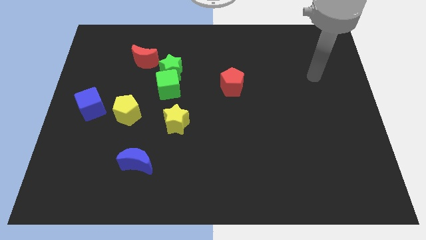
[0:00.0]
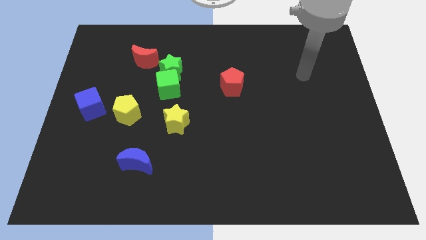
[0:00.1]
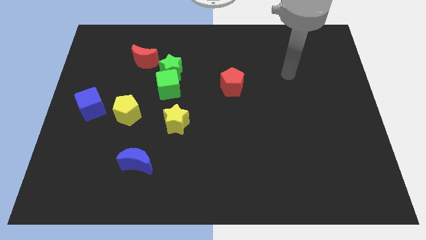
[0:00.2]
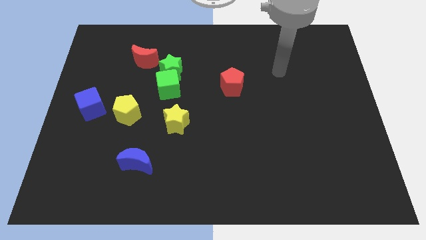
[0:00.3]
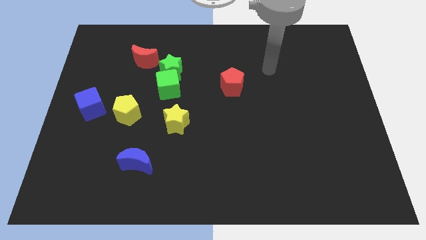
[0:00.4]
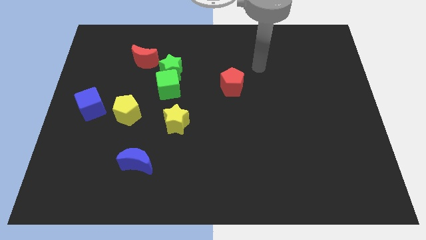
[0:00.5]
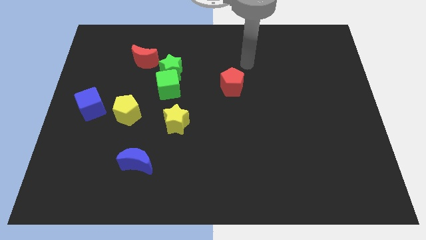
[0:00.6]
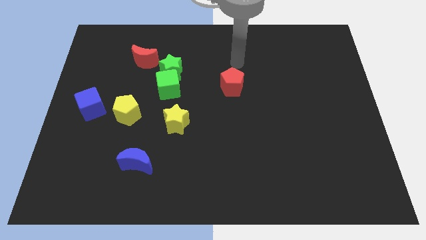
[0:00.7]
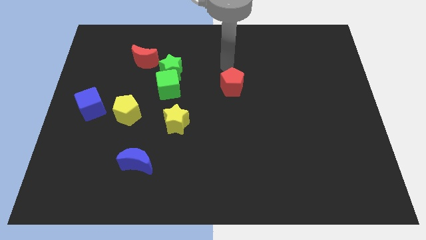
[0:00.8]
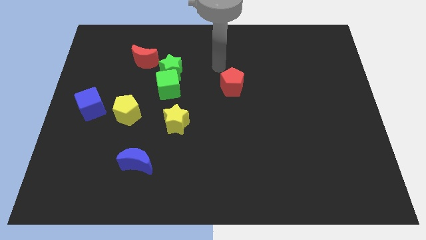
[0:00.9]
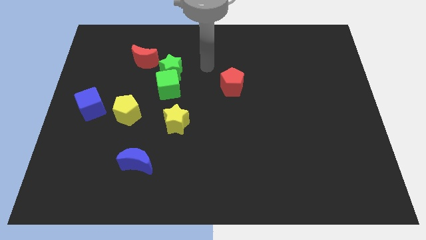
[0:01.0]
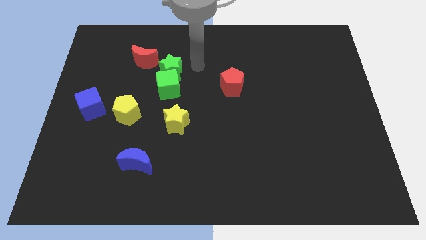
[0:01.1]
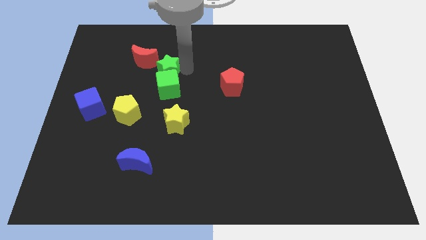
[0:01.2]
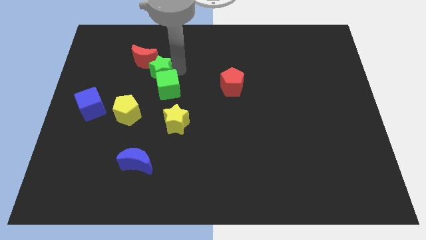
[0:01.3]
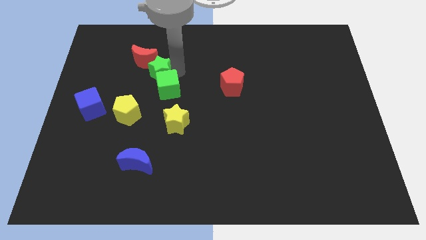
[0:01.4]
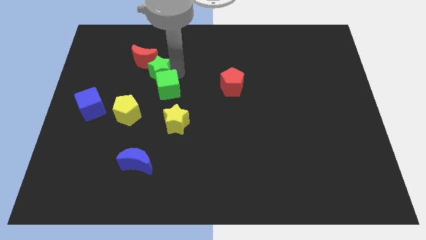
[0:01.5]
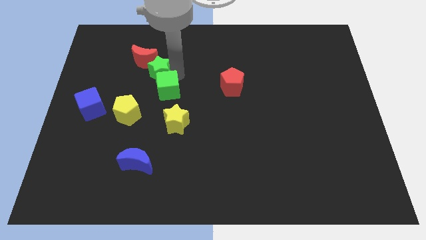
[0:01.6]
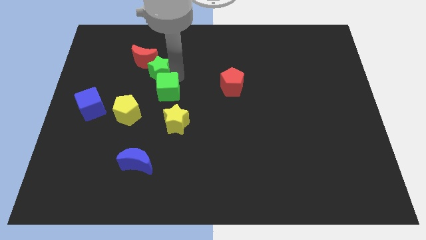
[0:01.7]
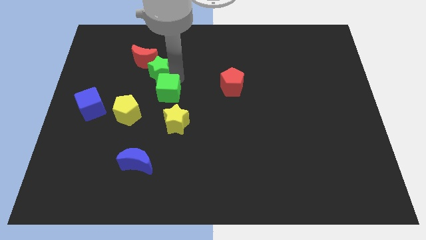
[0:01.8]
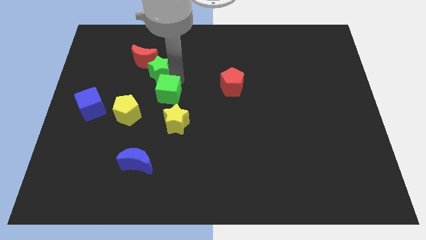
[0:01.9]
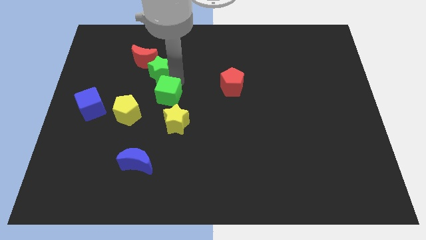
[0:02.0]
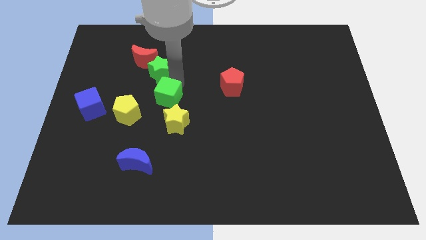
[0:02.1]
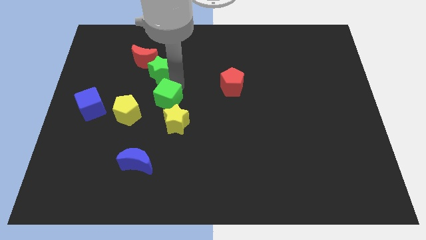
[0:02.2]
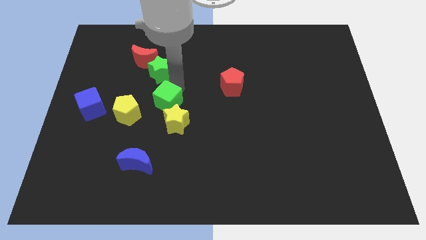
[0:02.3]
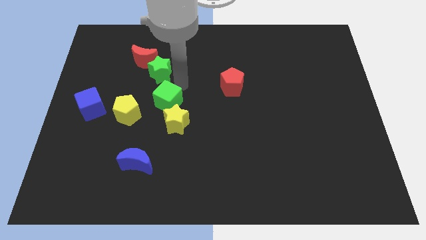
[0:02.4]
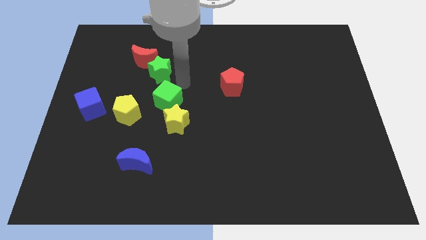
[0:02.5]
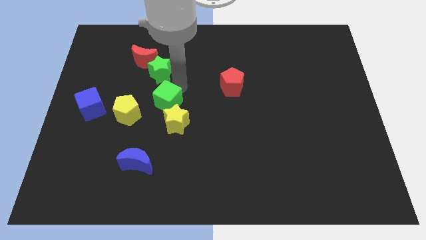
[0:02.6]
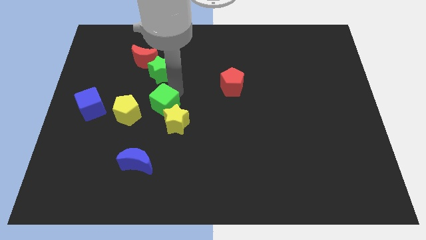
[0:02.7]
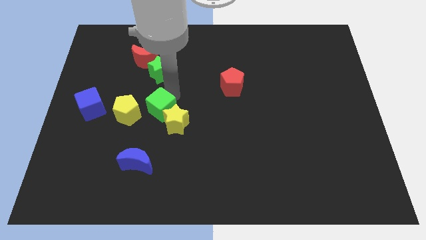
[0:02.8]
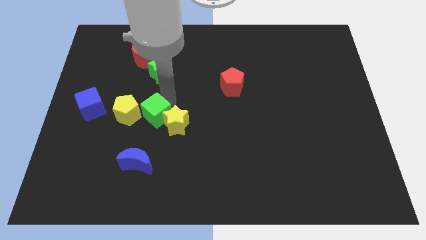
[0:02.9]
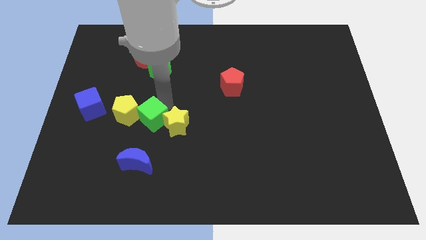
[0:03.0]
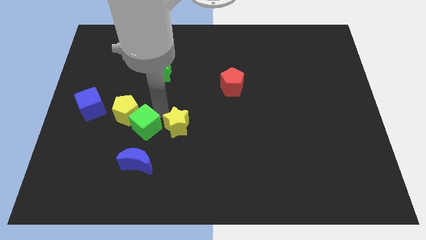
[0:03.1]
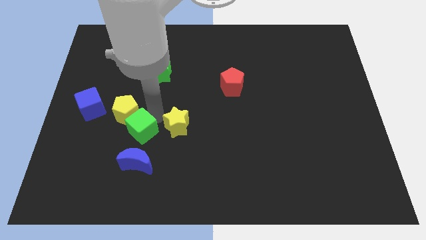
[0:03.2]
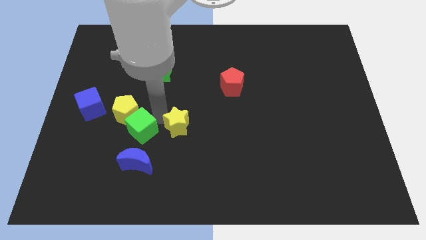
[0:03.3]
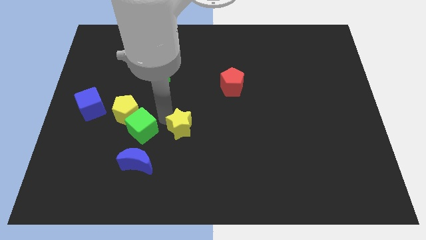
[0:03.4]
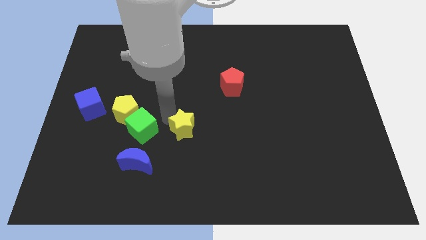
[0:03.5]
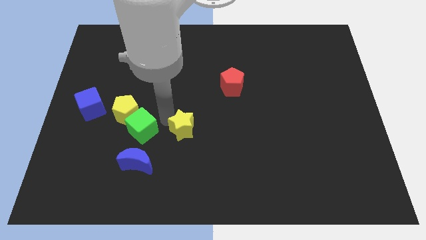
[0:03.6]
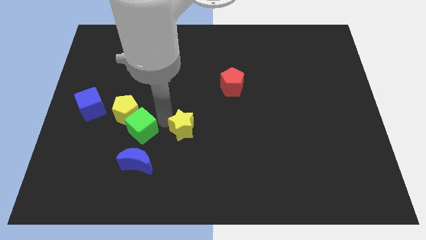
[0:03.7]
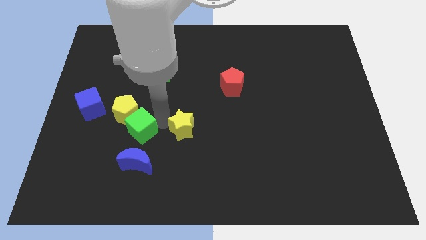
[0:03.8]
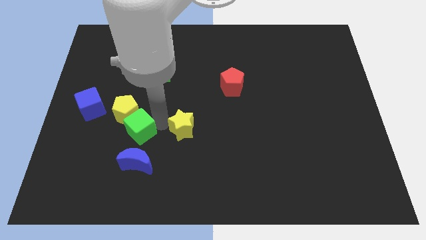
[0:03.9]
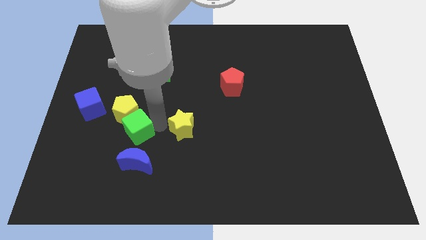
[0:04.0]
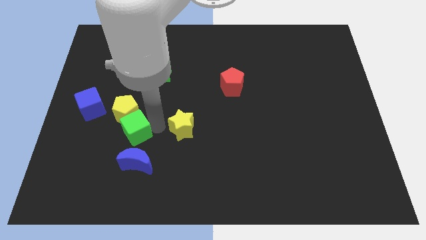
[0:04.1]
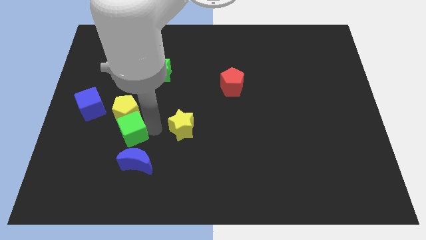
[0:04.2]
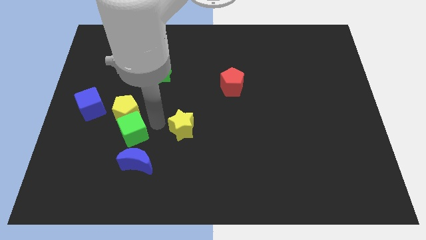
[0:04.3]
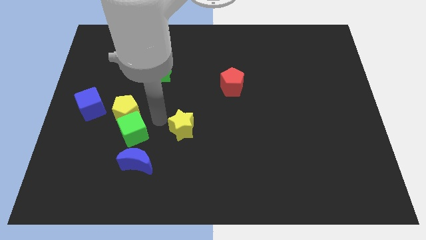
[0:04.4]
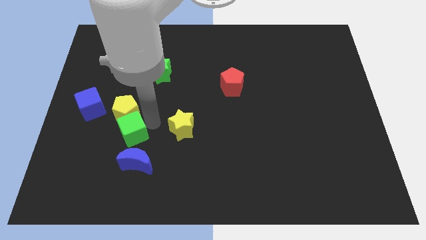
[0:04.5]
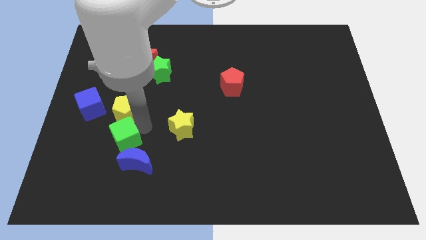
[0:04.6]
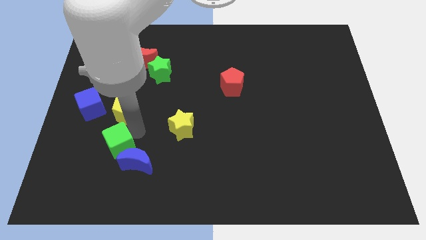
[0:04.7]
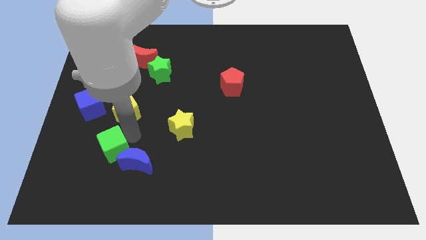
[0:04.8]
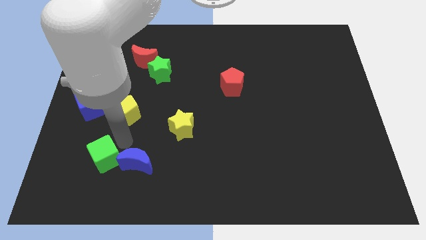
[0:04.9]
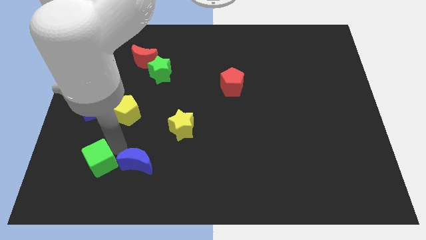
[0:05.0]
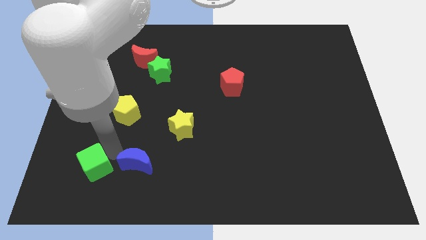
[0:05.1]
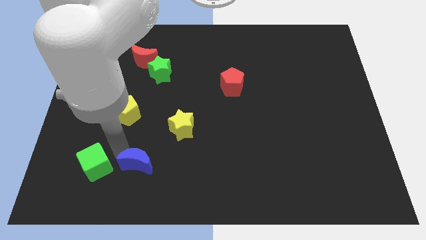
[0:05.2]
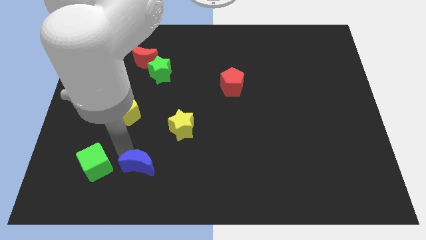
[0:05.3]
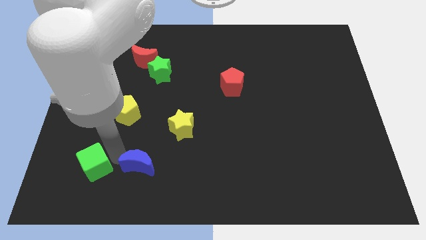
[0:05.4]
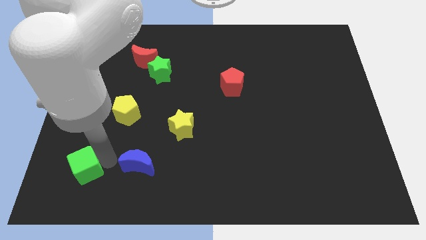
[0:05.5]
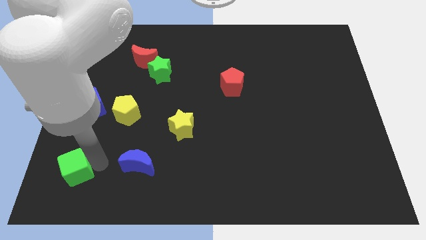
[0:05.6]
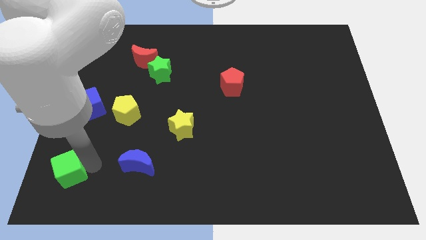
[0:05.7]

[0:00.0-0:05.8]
slide the green cube to the lower left corner
